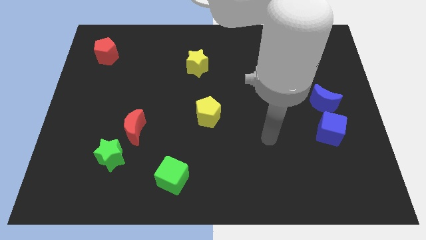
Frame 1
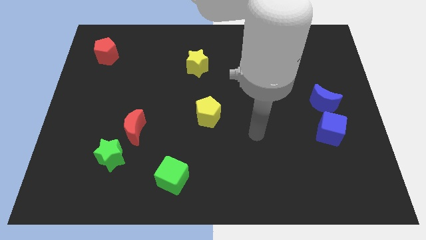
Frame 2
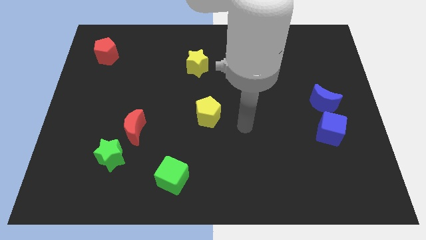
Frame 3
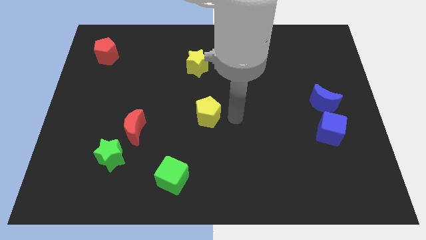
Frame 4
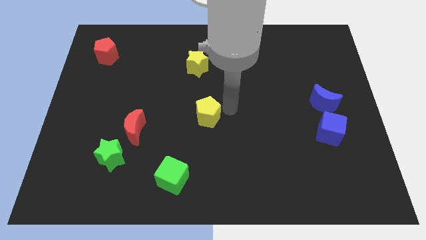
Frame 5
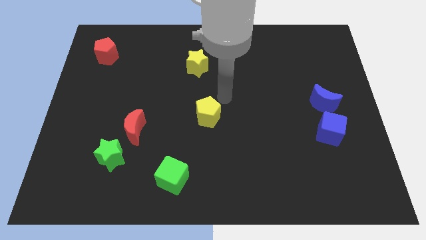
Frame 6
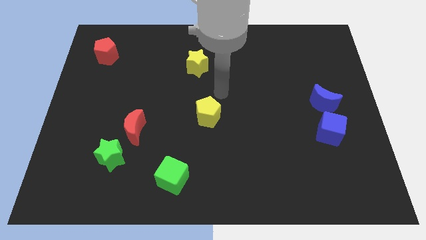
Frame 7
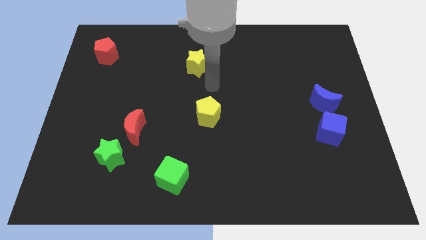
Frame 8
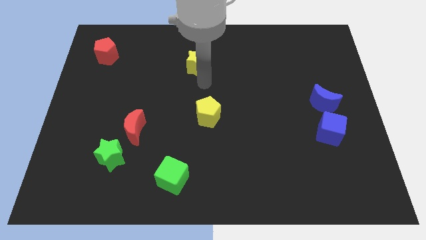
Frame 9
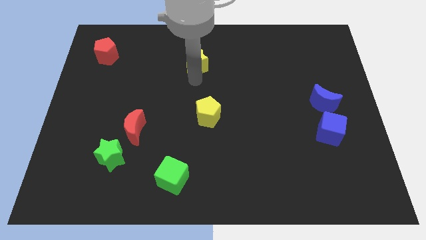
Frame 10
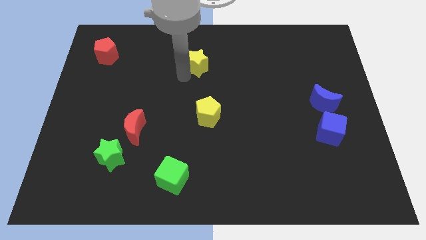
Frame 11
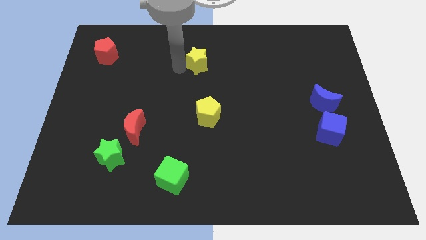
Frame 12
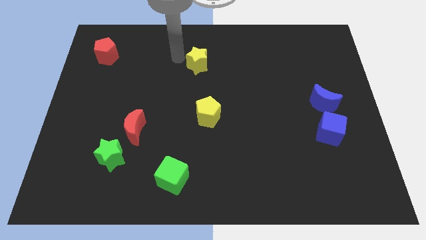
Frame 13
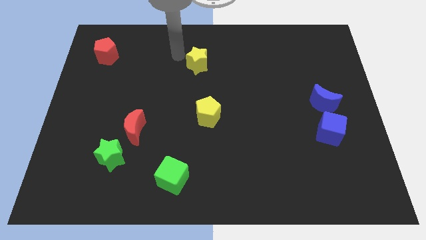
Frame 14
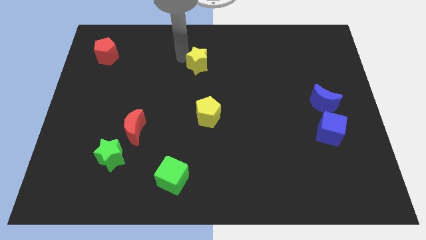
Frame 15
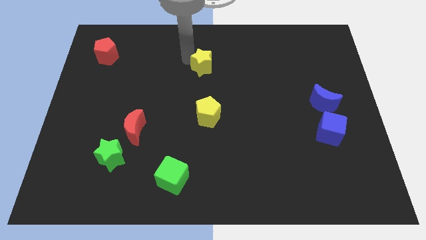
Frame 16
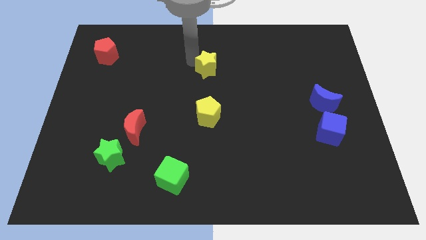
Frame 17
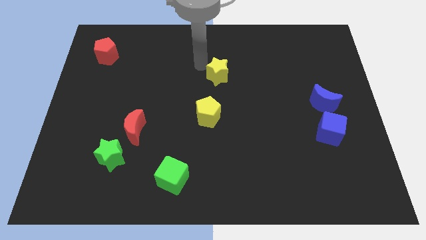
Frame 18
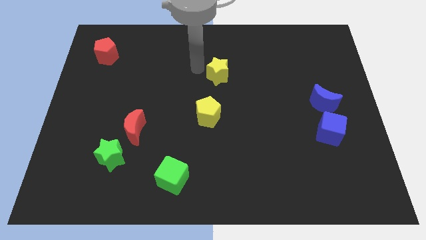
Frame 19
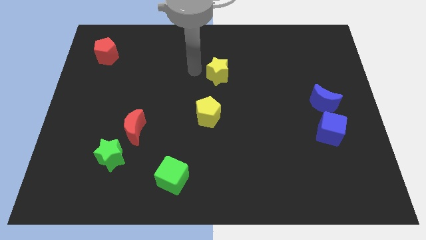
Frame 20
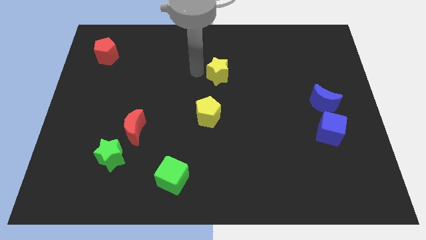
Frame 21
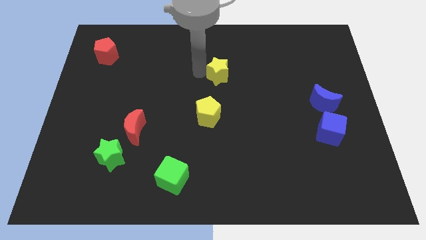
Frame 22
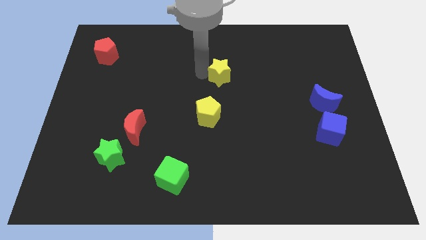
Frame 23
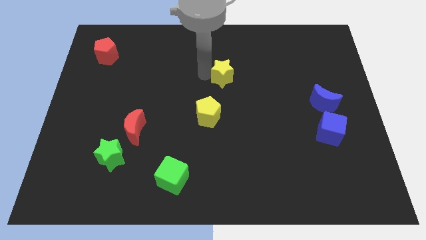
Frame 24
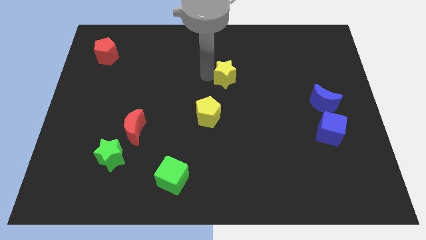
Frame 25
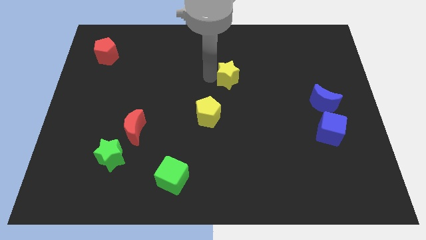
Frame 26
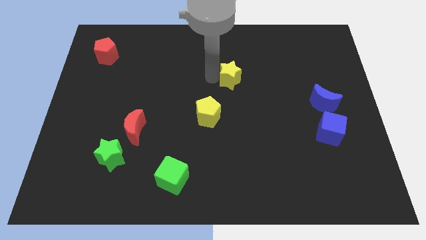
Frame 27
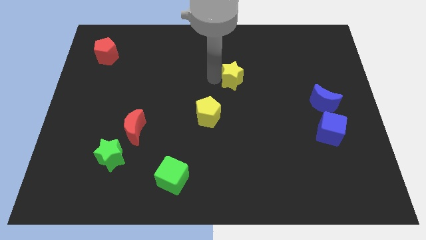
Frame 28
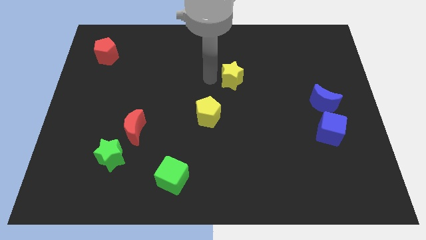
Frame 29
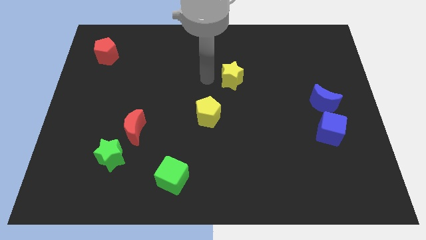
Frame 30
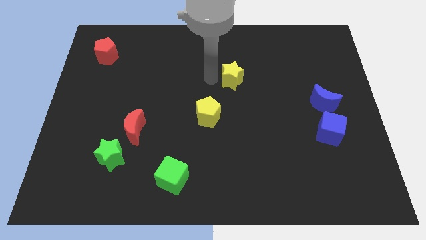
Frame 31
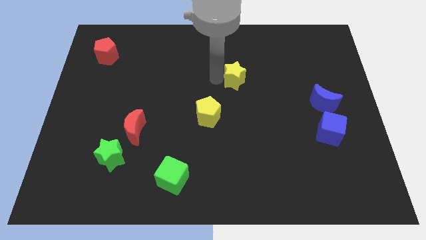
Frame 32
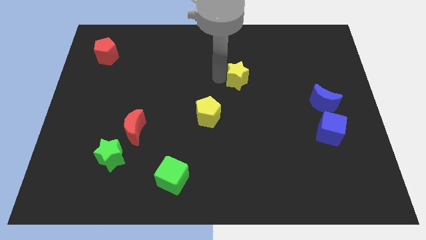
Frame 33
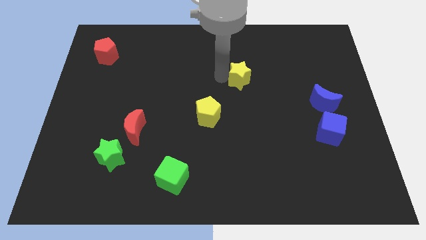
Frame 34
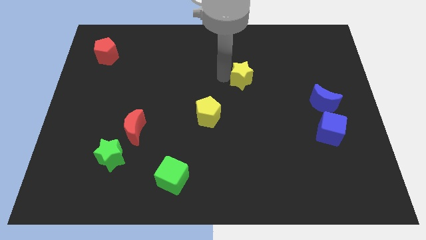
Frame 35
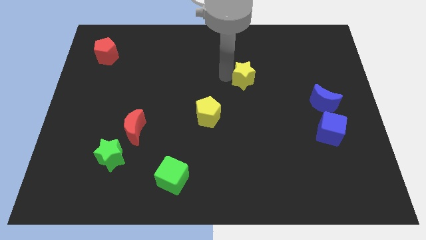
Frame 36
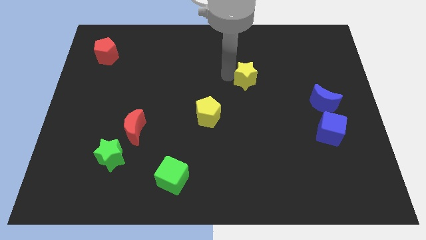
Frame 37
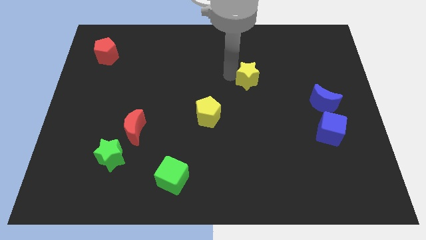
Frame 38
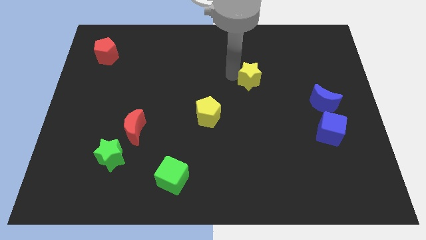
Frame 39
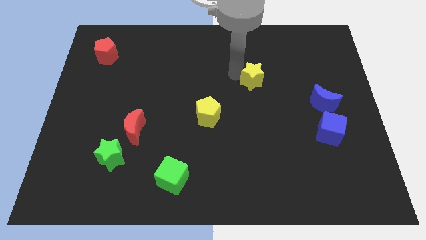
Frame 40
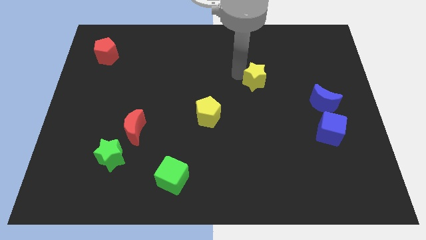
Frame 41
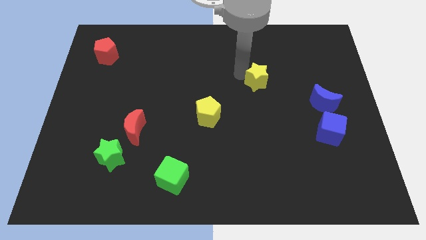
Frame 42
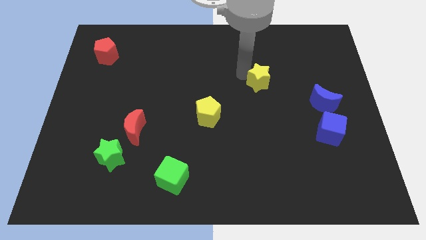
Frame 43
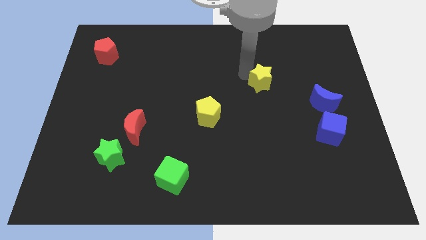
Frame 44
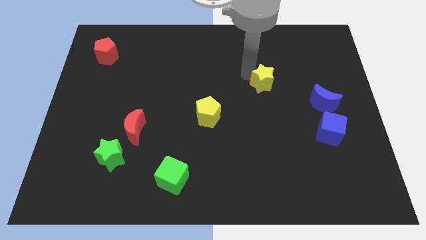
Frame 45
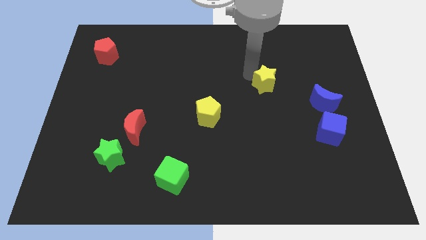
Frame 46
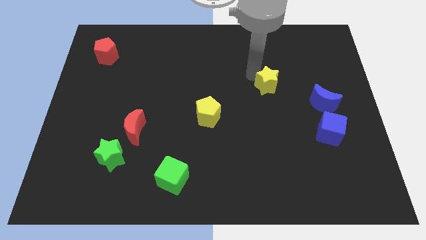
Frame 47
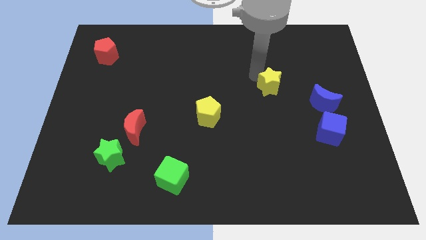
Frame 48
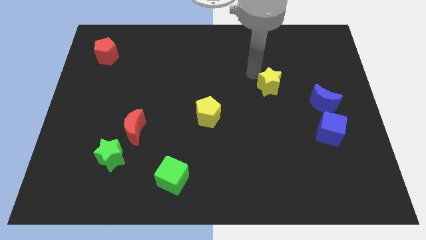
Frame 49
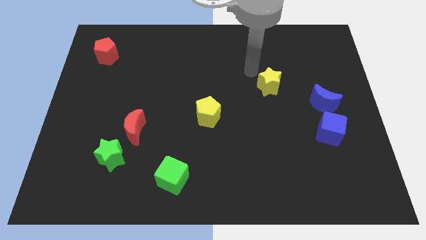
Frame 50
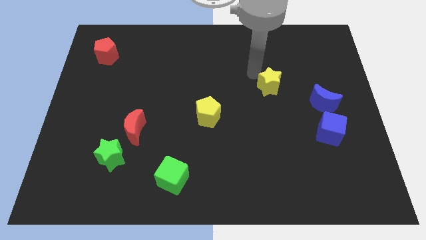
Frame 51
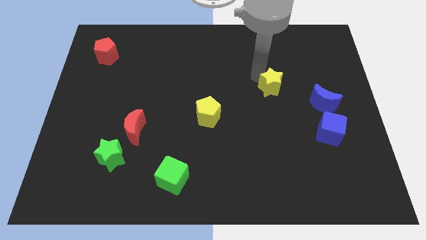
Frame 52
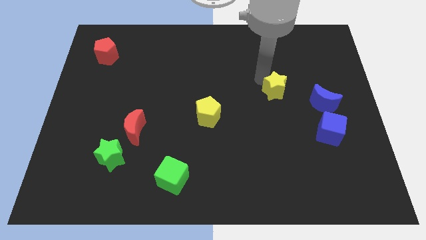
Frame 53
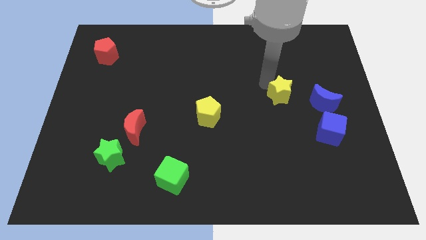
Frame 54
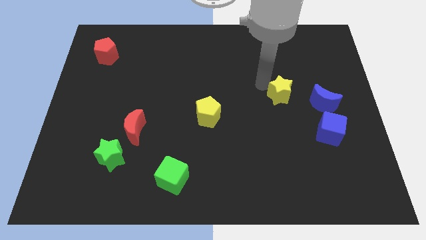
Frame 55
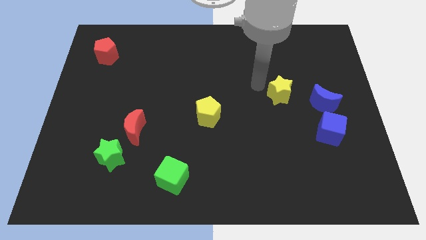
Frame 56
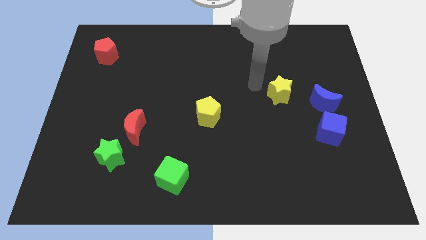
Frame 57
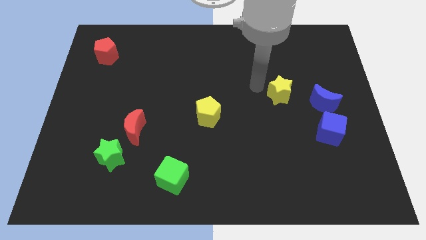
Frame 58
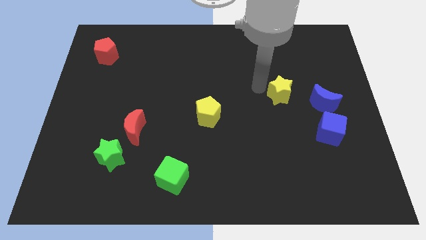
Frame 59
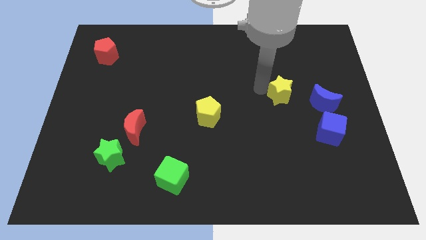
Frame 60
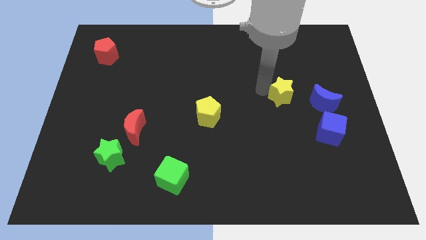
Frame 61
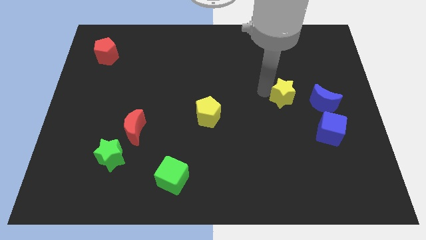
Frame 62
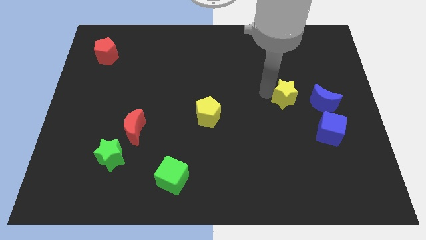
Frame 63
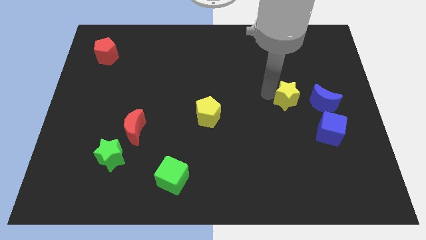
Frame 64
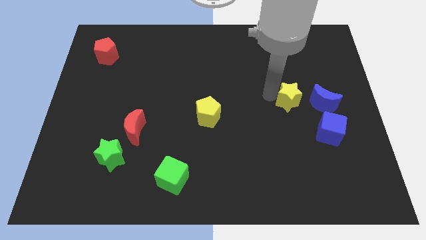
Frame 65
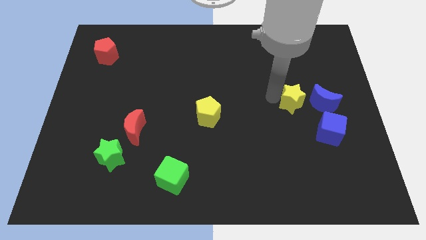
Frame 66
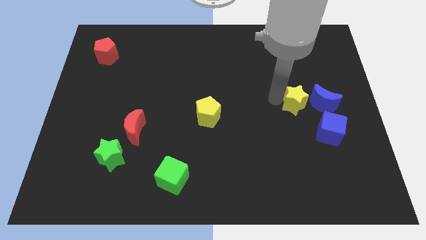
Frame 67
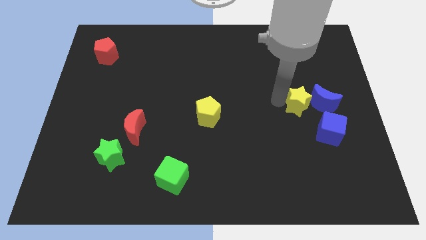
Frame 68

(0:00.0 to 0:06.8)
slide the yellow star to the blue moon
